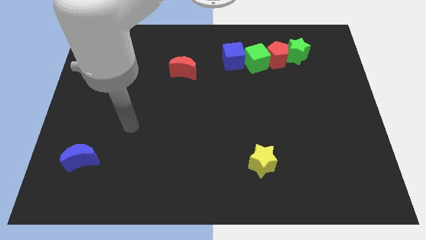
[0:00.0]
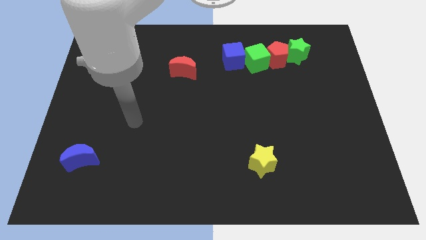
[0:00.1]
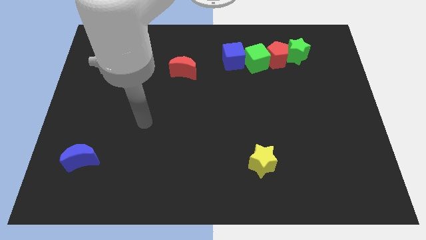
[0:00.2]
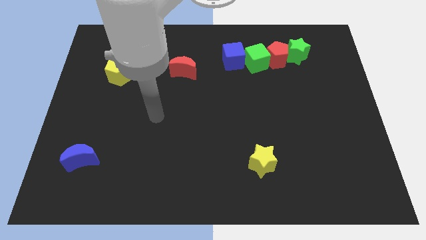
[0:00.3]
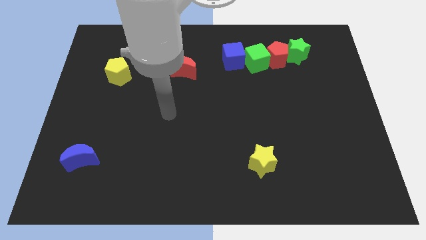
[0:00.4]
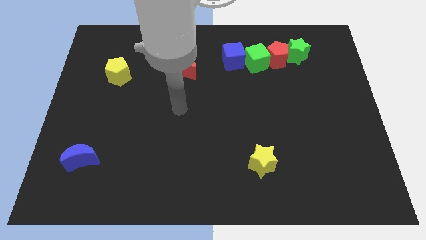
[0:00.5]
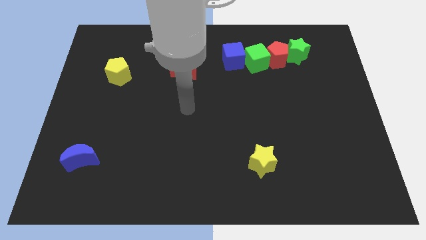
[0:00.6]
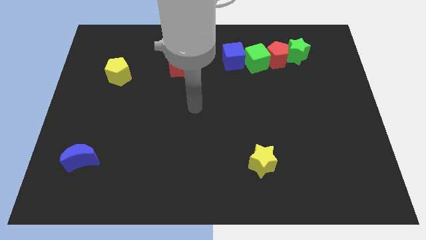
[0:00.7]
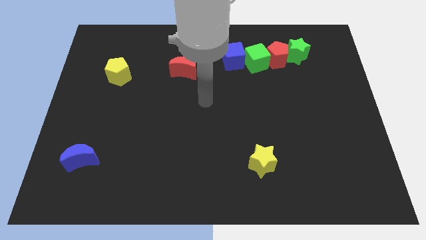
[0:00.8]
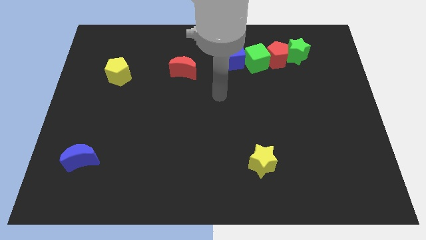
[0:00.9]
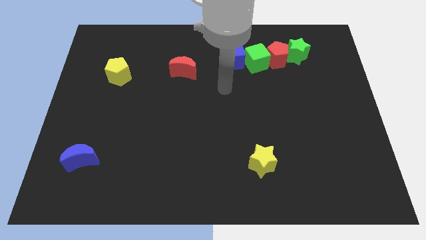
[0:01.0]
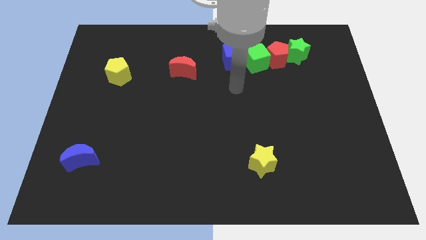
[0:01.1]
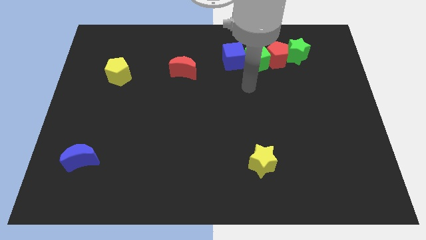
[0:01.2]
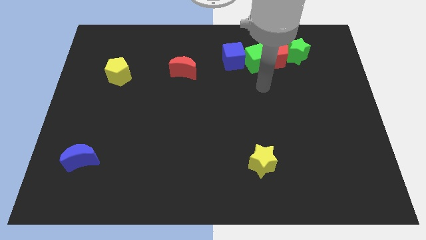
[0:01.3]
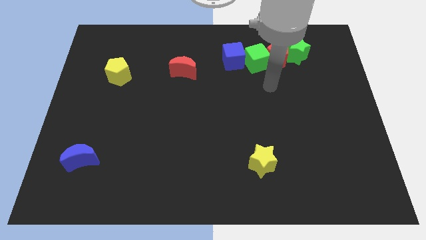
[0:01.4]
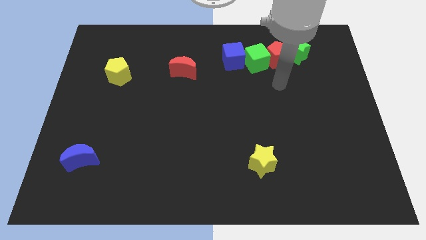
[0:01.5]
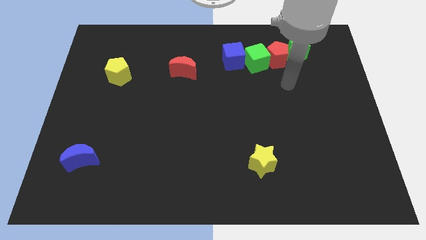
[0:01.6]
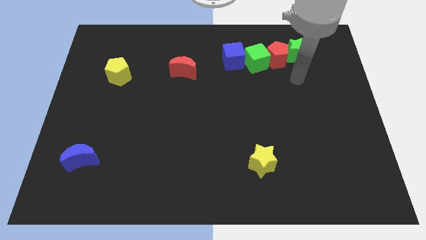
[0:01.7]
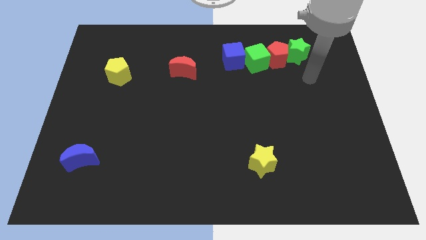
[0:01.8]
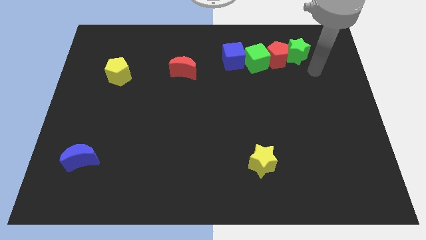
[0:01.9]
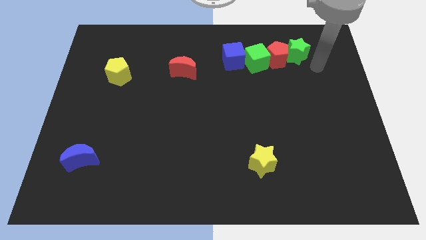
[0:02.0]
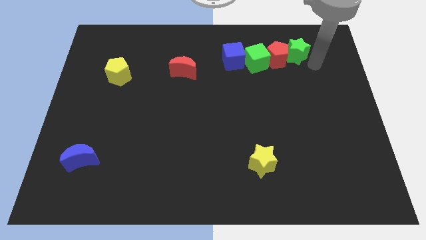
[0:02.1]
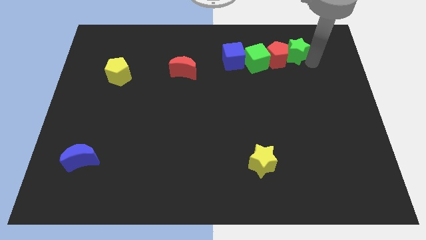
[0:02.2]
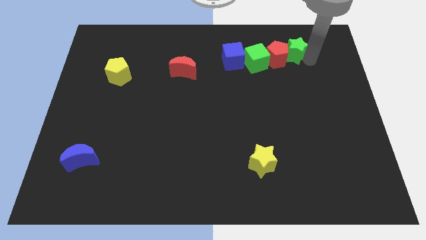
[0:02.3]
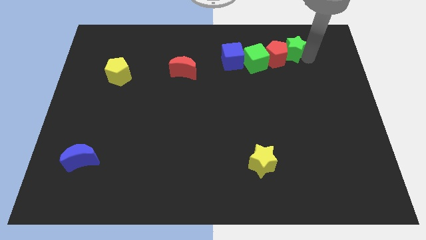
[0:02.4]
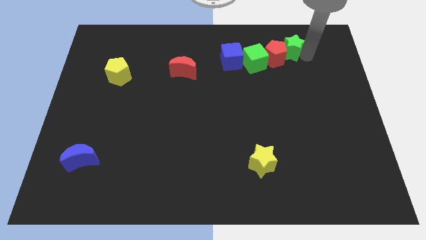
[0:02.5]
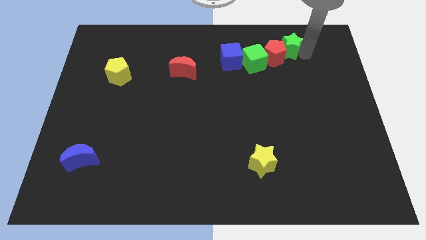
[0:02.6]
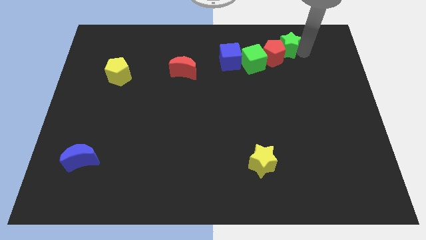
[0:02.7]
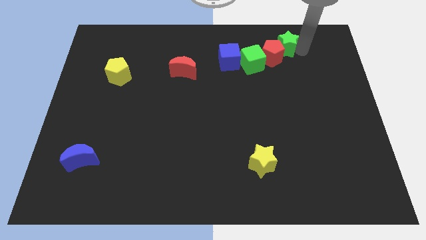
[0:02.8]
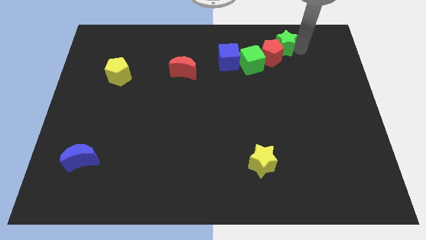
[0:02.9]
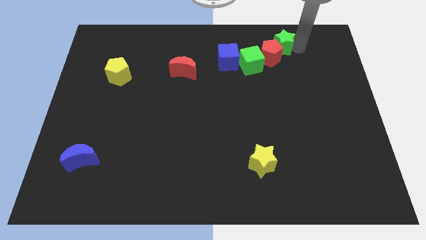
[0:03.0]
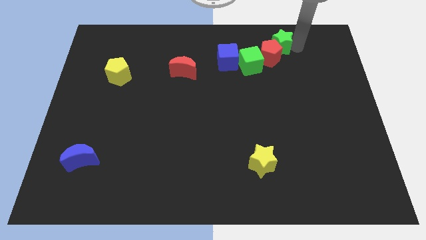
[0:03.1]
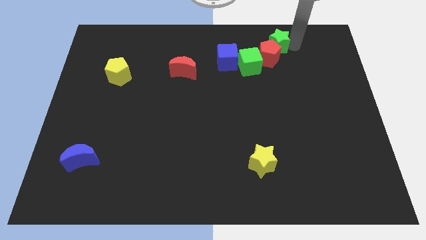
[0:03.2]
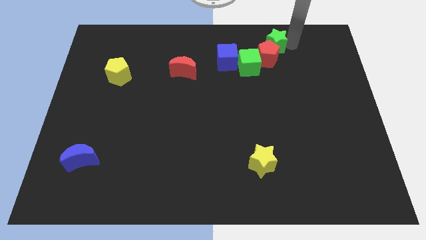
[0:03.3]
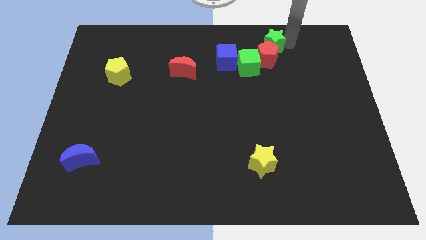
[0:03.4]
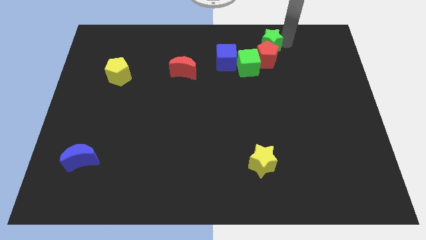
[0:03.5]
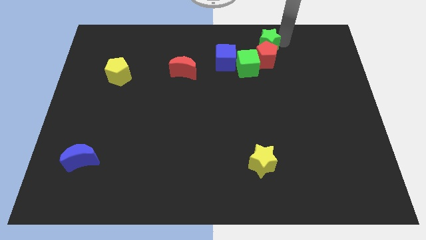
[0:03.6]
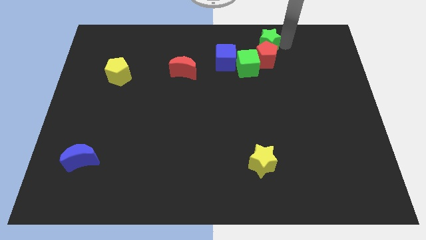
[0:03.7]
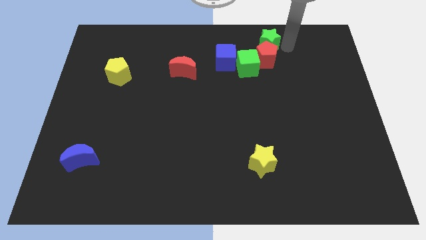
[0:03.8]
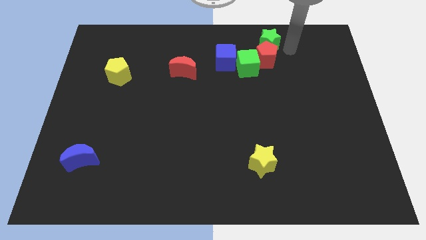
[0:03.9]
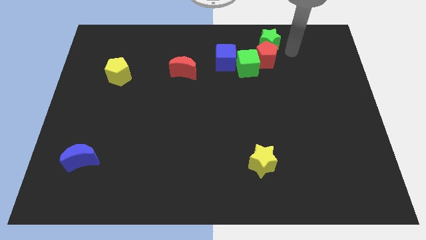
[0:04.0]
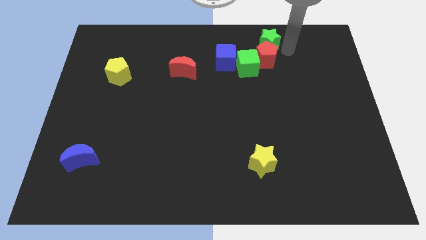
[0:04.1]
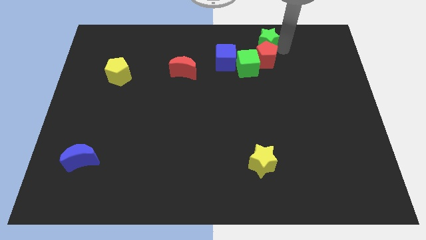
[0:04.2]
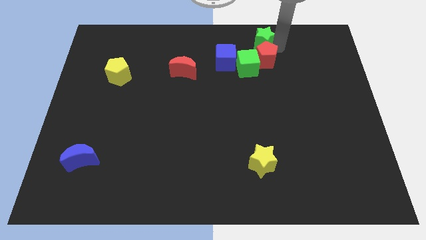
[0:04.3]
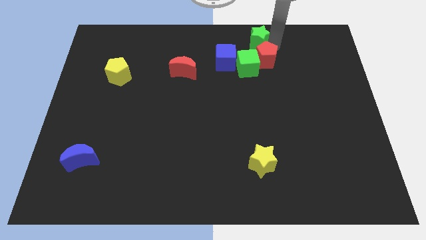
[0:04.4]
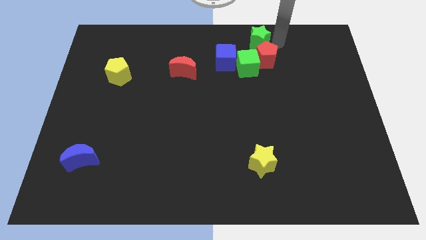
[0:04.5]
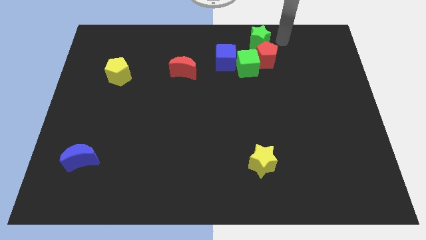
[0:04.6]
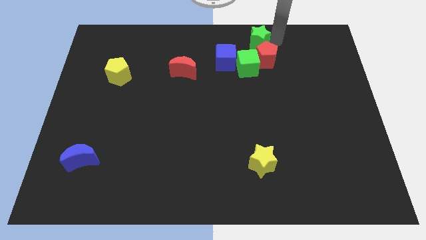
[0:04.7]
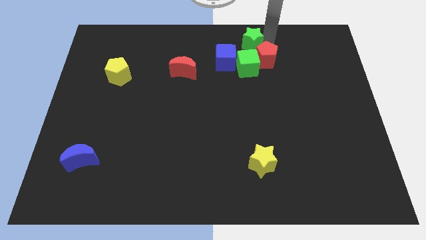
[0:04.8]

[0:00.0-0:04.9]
put the green star to the towards your base

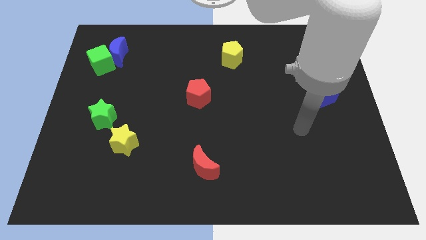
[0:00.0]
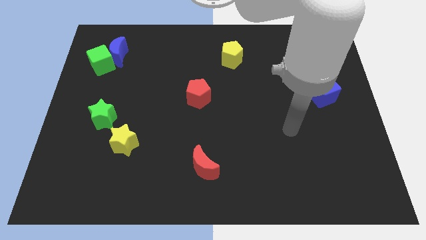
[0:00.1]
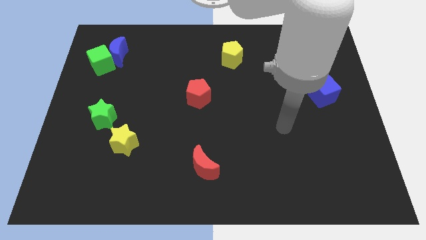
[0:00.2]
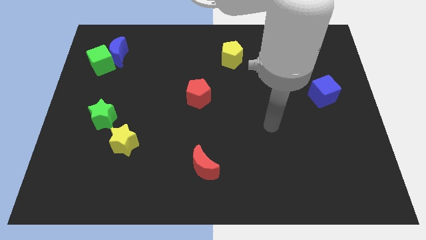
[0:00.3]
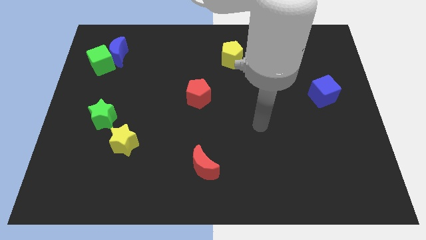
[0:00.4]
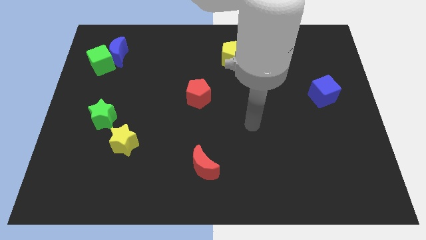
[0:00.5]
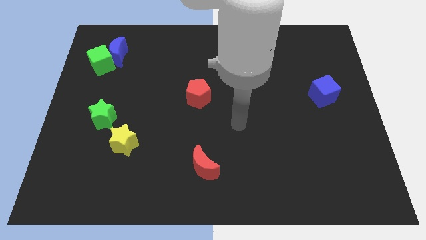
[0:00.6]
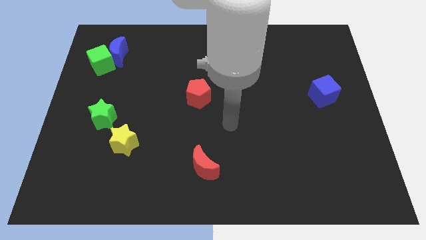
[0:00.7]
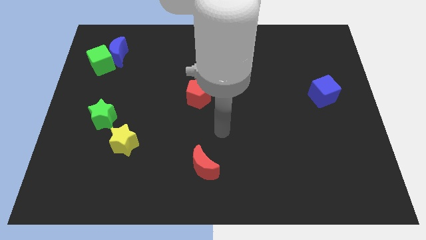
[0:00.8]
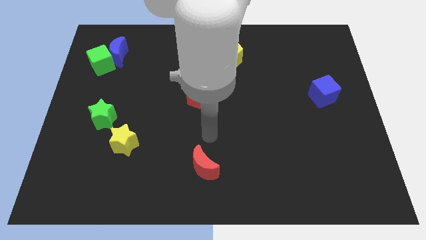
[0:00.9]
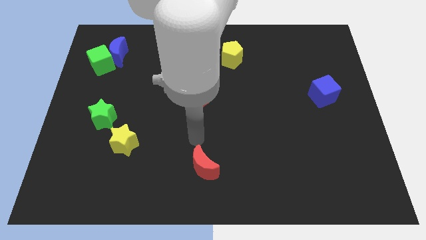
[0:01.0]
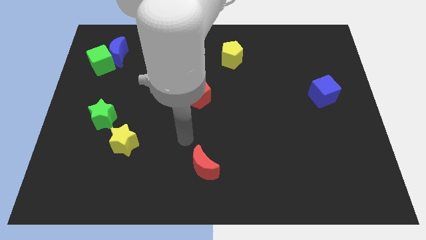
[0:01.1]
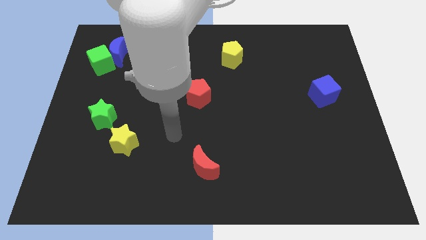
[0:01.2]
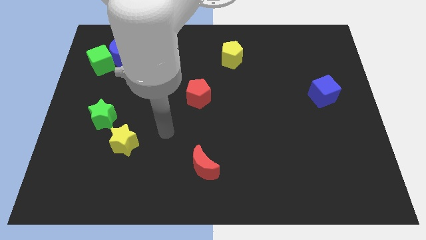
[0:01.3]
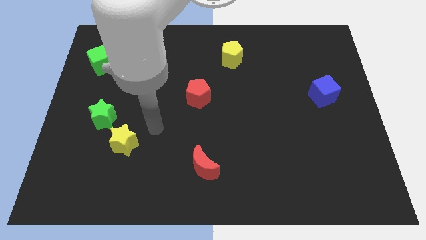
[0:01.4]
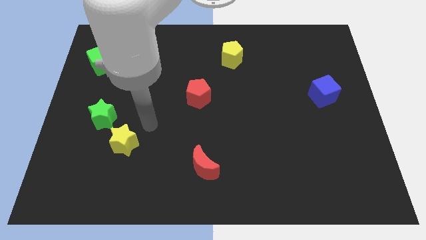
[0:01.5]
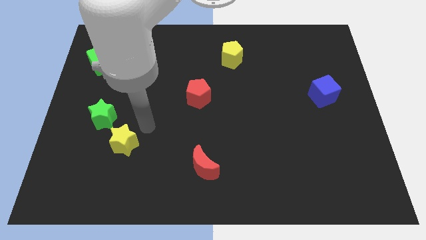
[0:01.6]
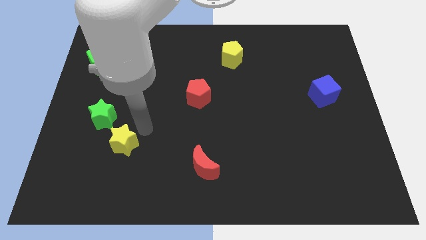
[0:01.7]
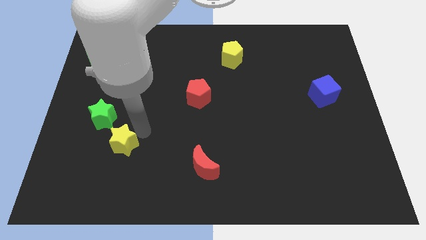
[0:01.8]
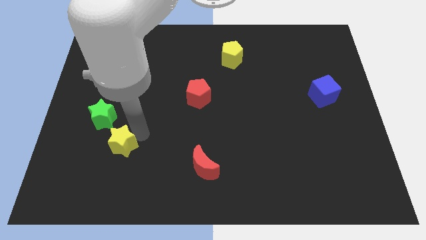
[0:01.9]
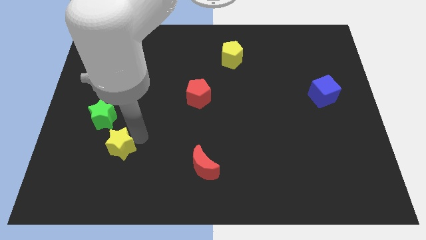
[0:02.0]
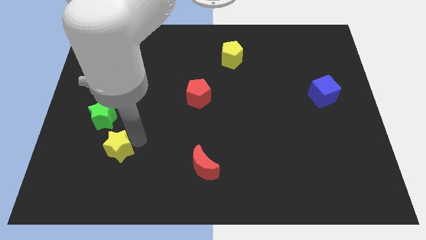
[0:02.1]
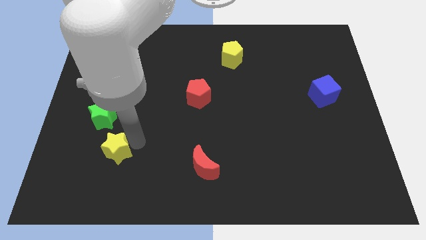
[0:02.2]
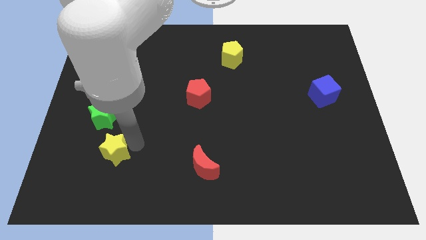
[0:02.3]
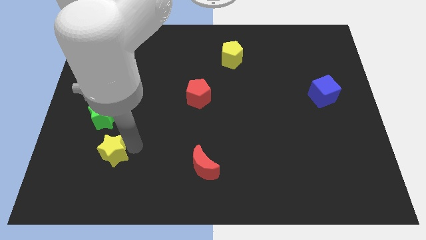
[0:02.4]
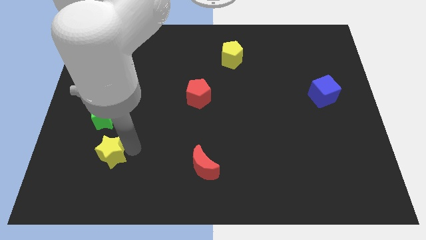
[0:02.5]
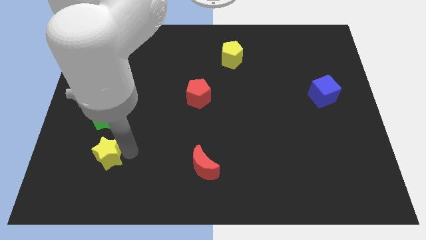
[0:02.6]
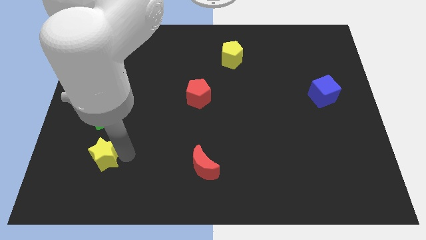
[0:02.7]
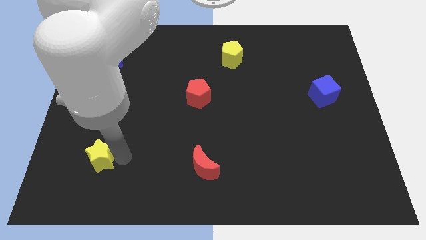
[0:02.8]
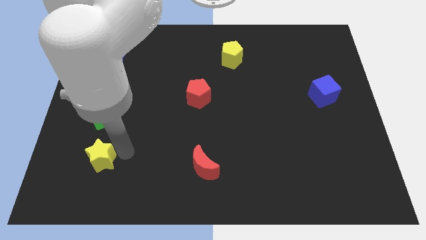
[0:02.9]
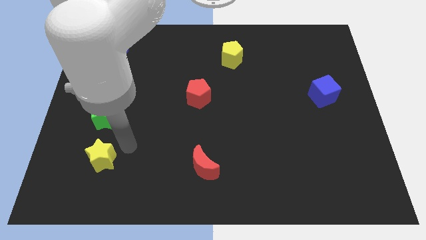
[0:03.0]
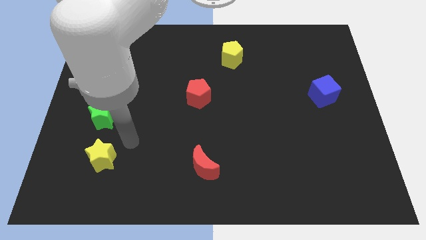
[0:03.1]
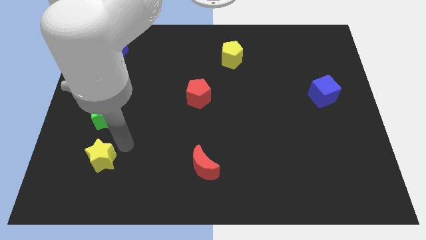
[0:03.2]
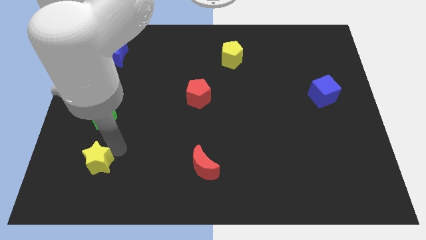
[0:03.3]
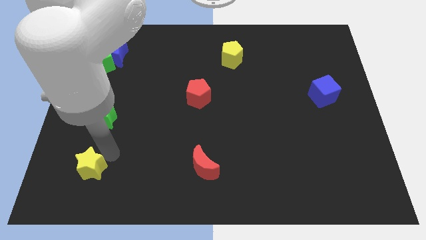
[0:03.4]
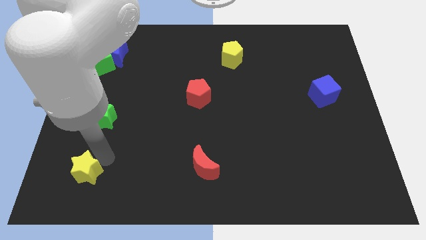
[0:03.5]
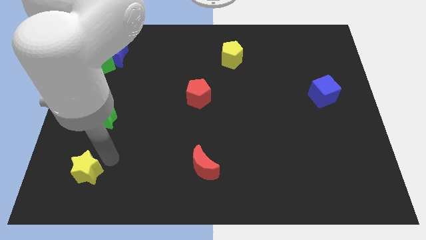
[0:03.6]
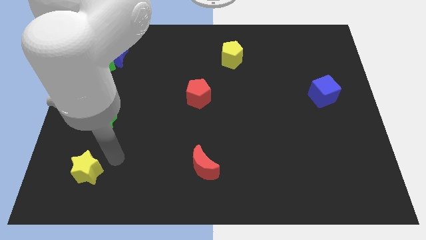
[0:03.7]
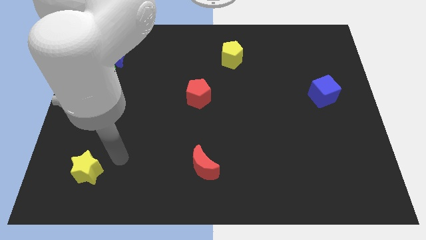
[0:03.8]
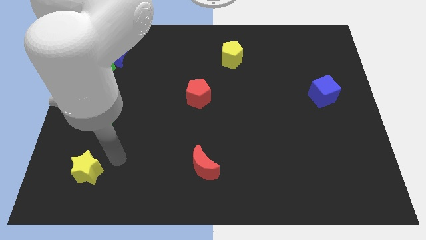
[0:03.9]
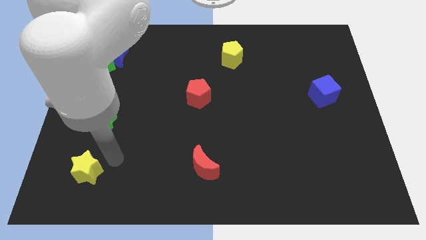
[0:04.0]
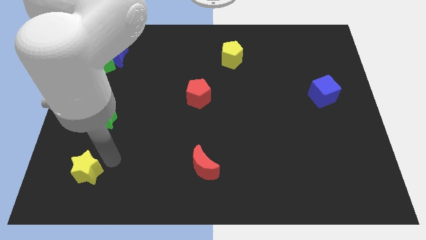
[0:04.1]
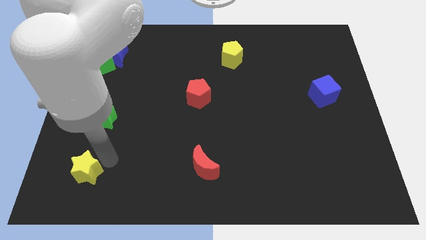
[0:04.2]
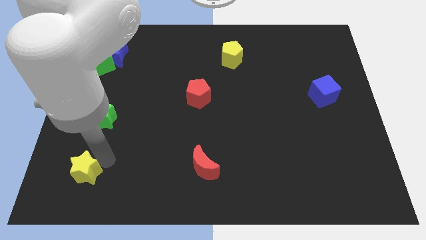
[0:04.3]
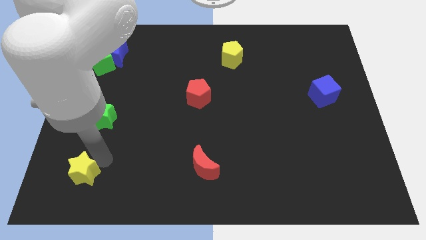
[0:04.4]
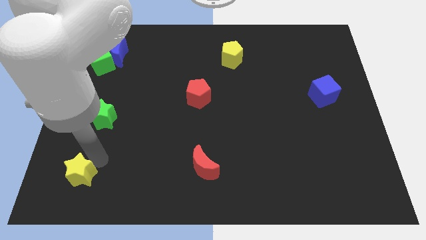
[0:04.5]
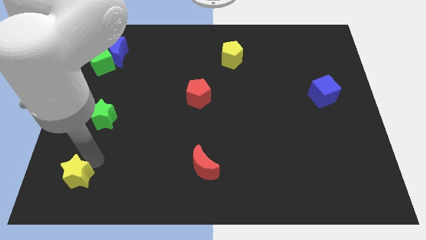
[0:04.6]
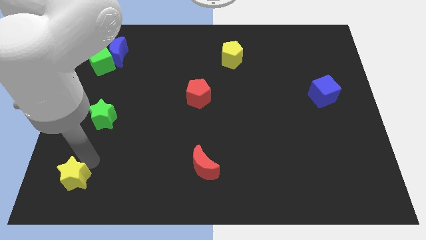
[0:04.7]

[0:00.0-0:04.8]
put the yellow star to the bottom left
